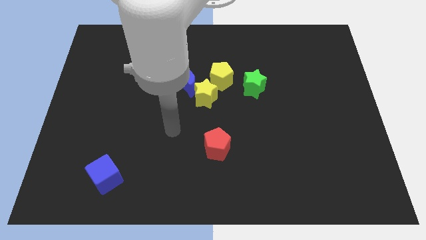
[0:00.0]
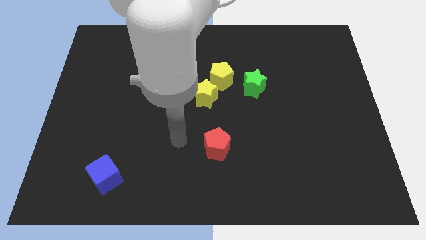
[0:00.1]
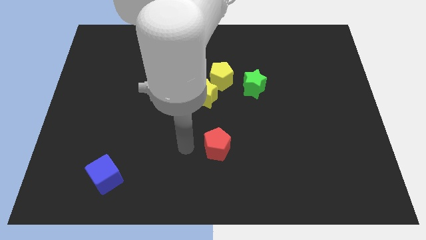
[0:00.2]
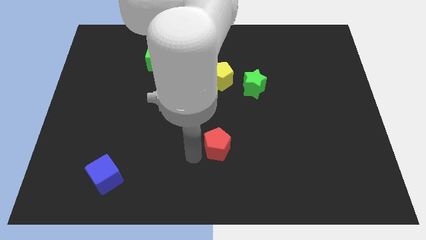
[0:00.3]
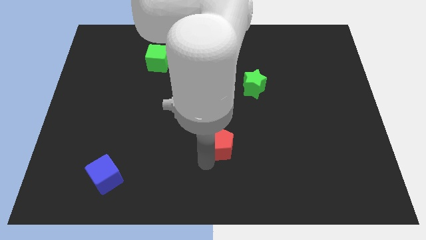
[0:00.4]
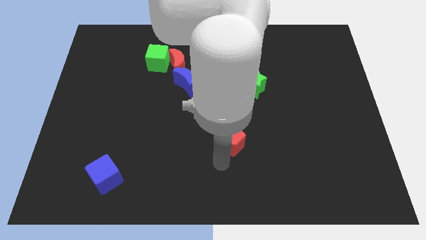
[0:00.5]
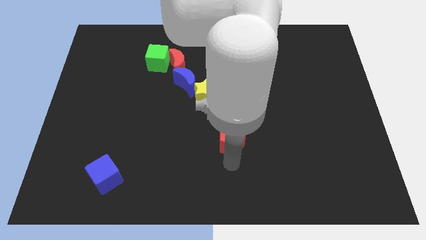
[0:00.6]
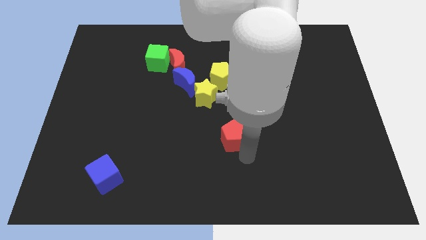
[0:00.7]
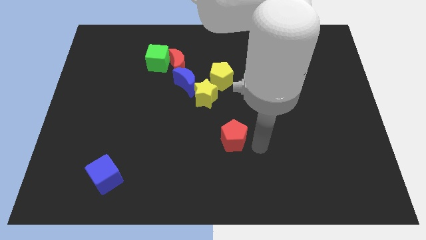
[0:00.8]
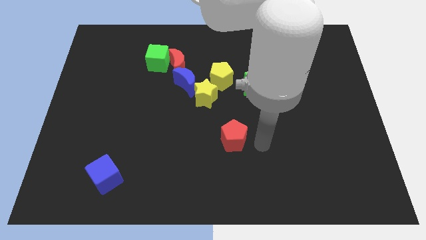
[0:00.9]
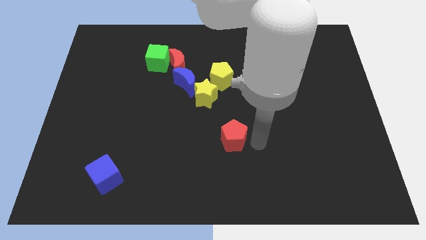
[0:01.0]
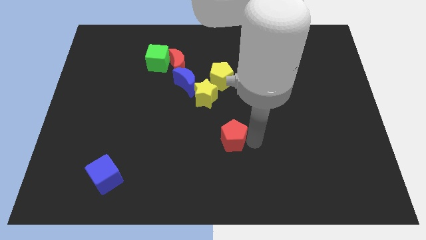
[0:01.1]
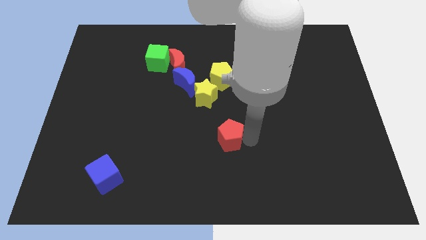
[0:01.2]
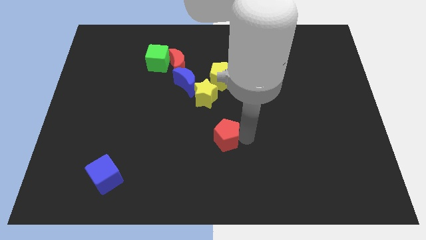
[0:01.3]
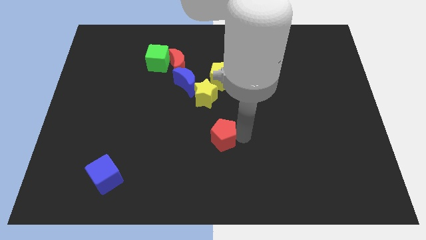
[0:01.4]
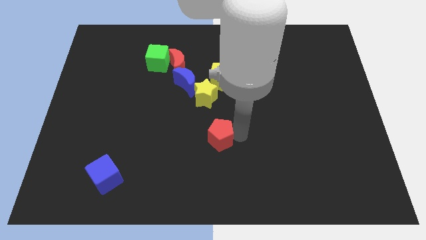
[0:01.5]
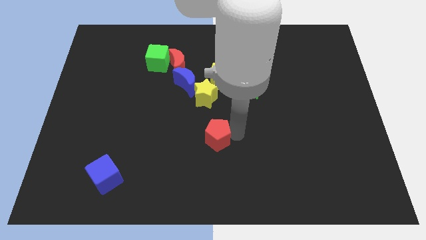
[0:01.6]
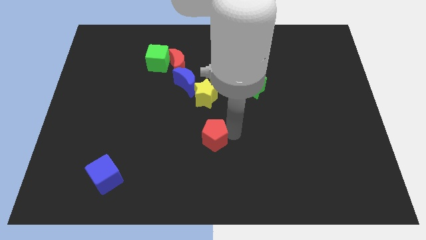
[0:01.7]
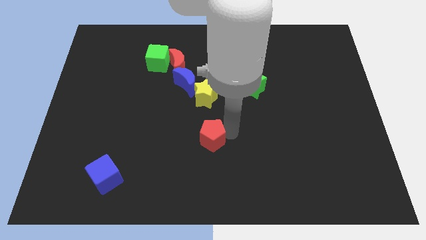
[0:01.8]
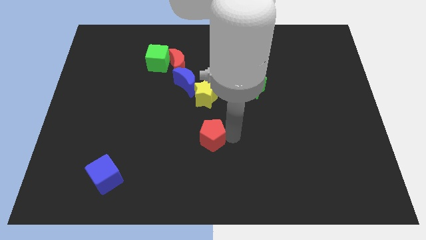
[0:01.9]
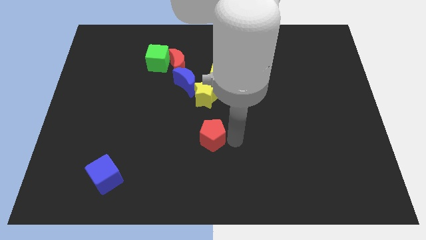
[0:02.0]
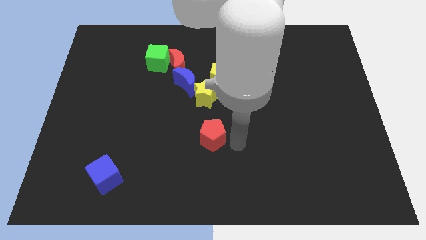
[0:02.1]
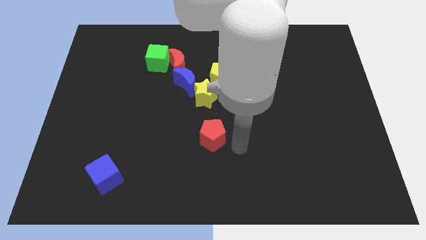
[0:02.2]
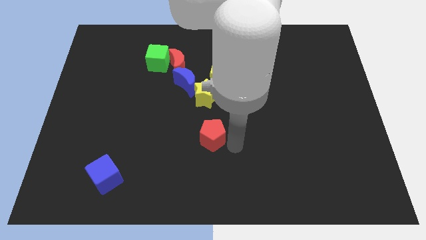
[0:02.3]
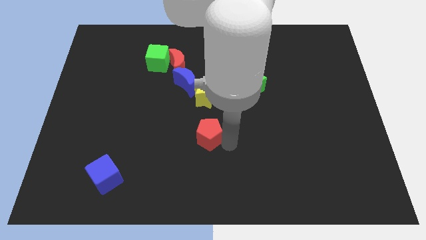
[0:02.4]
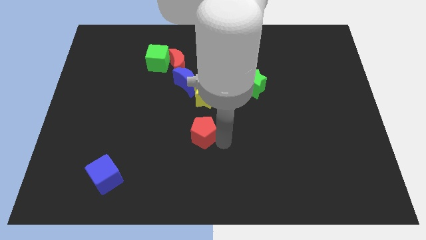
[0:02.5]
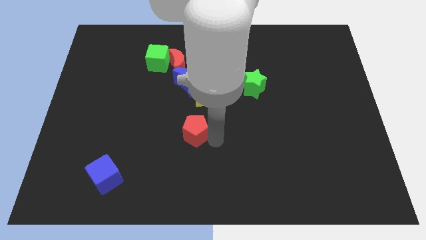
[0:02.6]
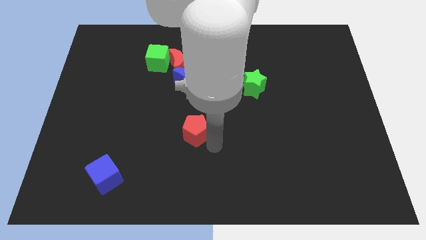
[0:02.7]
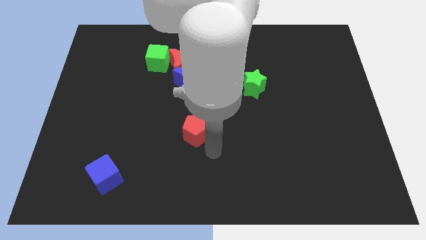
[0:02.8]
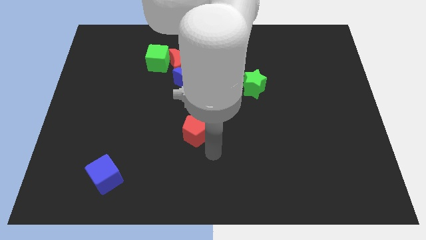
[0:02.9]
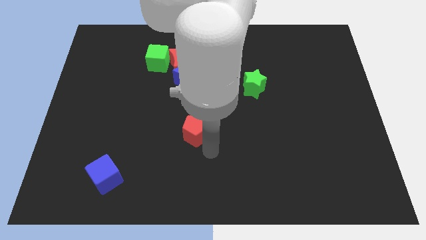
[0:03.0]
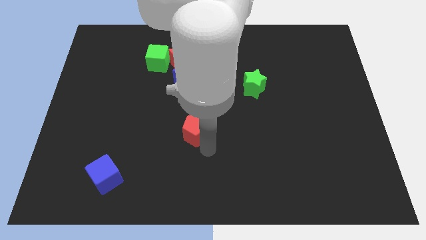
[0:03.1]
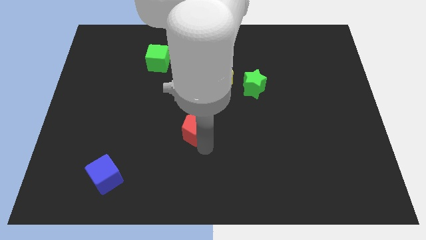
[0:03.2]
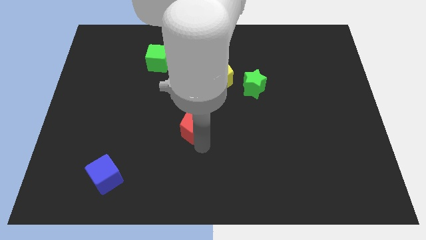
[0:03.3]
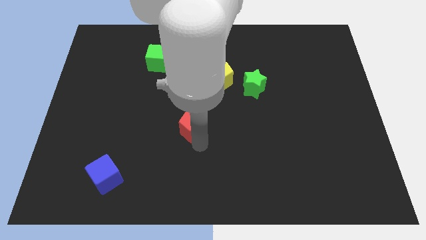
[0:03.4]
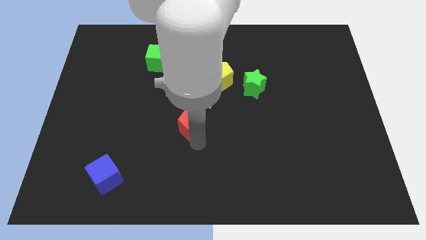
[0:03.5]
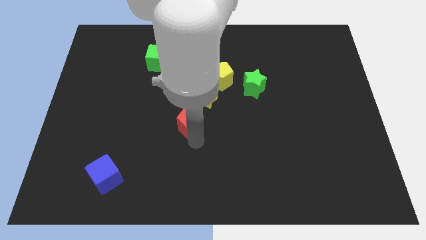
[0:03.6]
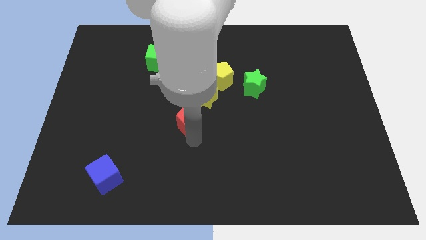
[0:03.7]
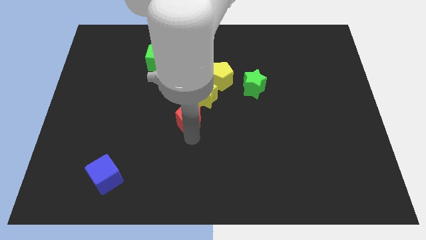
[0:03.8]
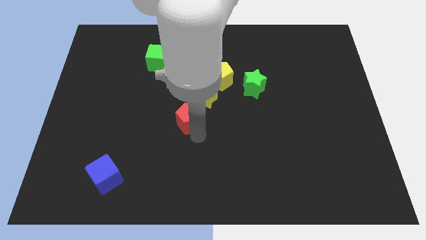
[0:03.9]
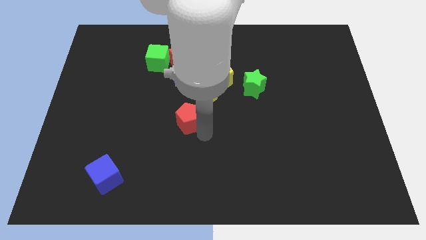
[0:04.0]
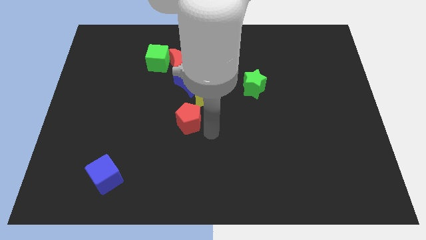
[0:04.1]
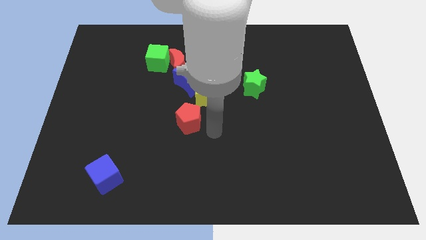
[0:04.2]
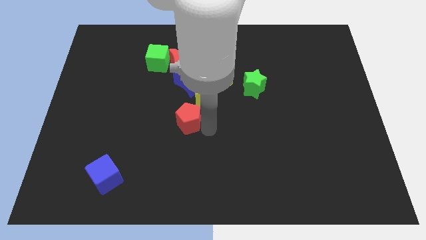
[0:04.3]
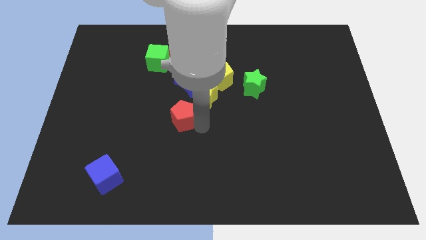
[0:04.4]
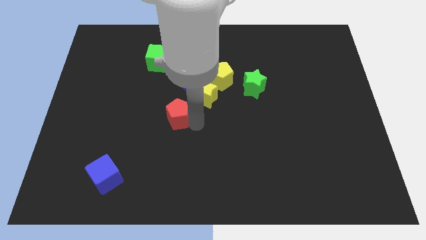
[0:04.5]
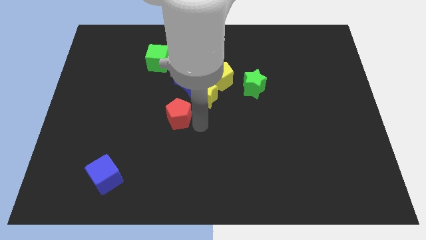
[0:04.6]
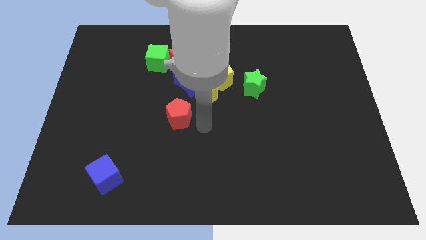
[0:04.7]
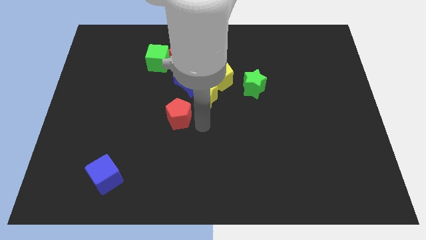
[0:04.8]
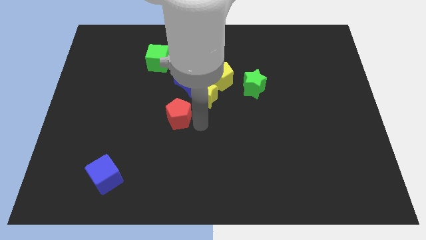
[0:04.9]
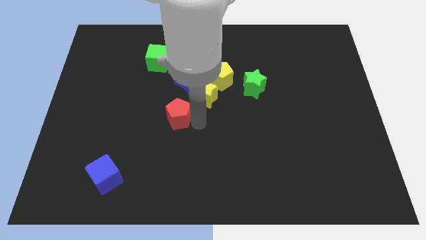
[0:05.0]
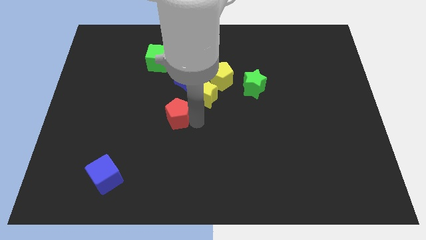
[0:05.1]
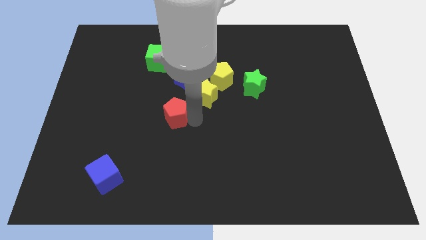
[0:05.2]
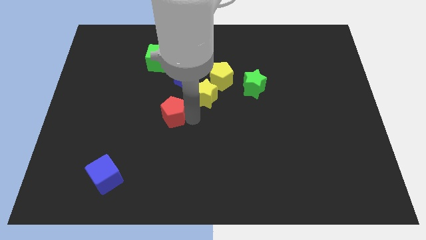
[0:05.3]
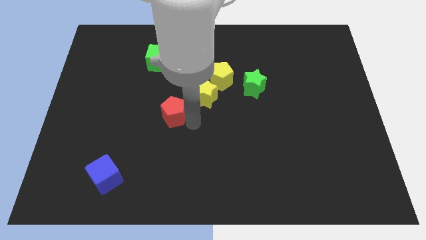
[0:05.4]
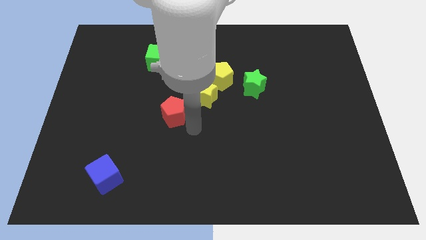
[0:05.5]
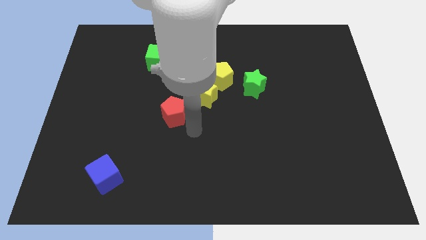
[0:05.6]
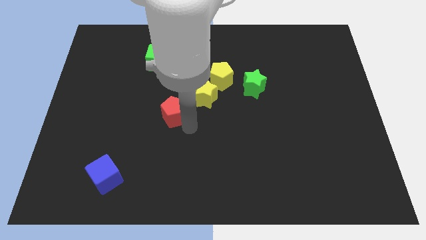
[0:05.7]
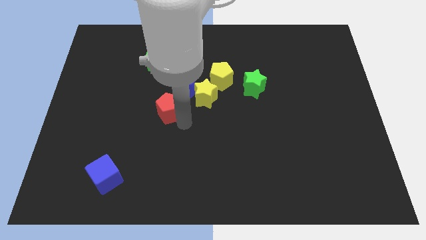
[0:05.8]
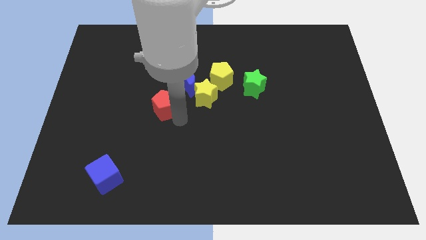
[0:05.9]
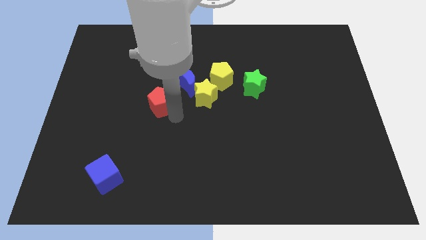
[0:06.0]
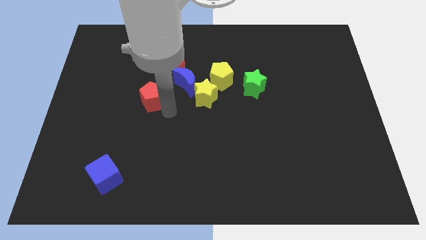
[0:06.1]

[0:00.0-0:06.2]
push the red pentagon upwards and left diagonally

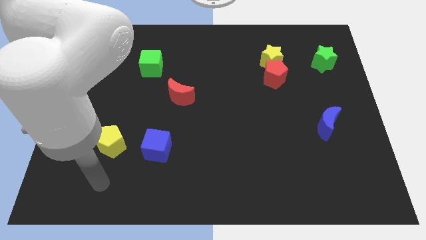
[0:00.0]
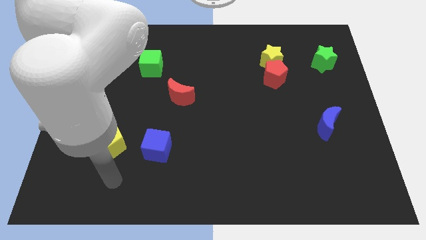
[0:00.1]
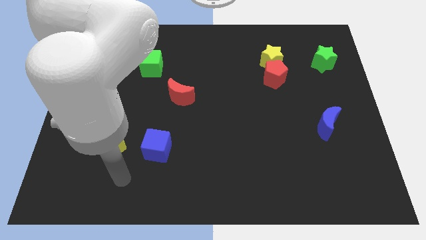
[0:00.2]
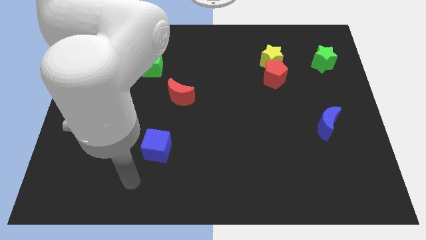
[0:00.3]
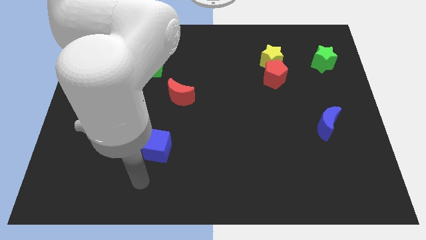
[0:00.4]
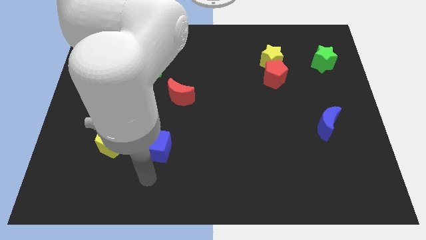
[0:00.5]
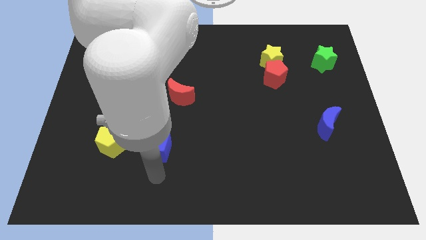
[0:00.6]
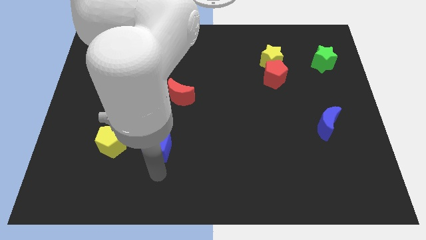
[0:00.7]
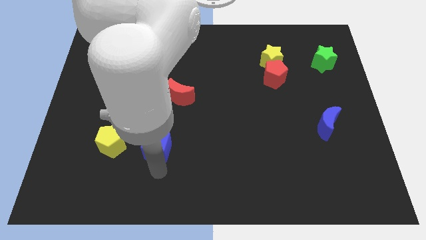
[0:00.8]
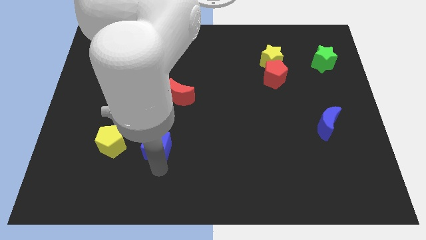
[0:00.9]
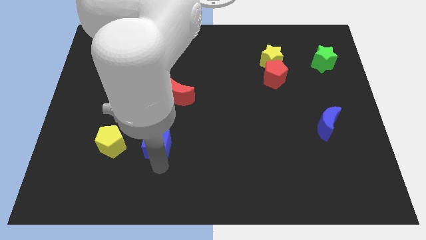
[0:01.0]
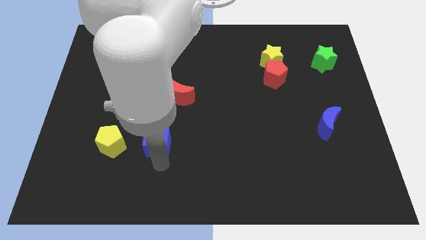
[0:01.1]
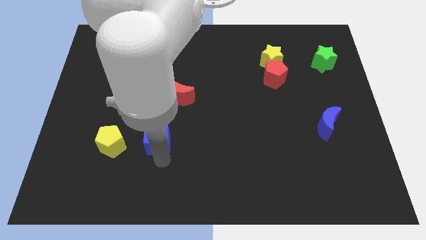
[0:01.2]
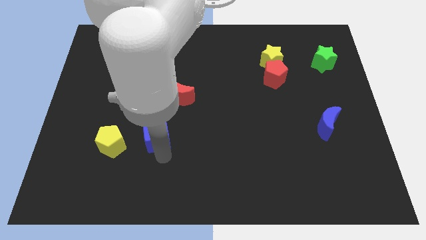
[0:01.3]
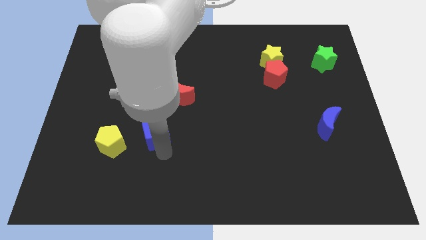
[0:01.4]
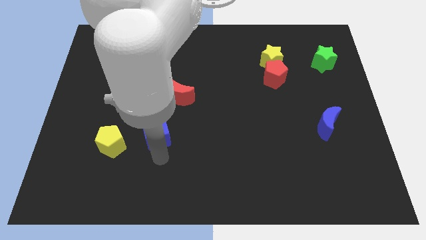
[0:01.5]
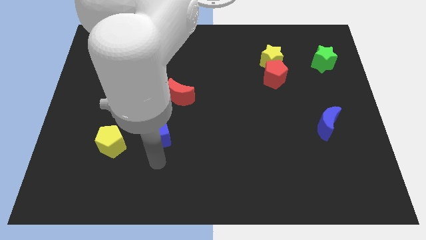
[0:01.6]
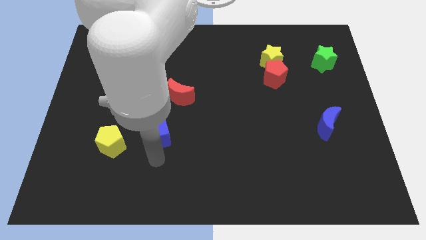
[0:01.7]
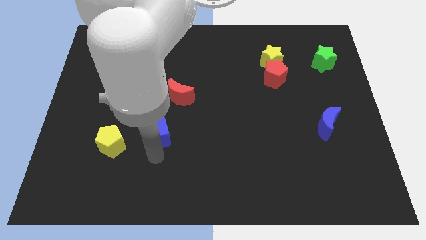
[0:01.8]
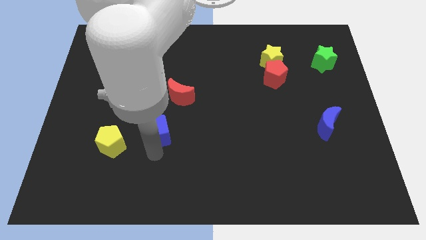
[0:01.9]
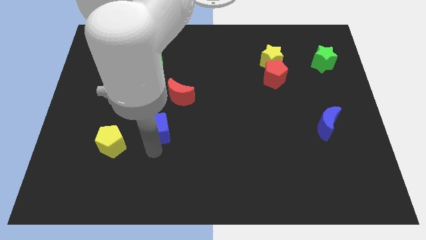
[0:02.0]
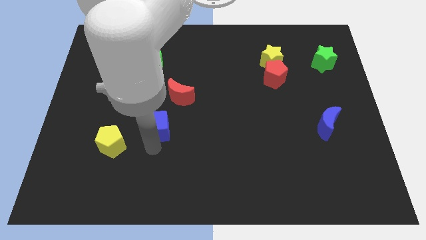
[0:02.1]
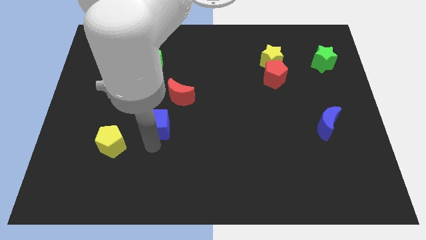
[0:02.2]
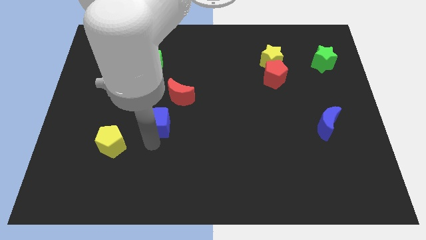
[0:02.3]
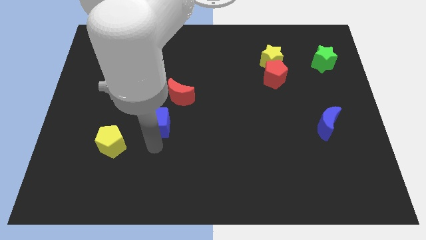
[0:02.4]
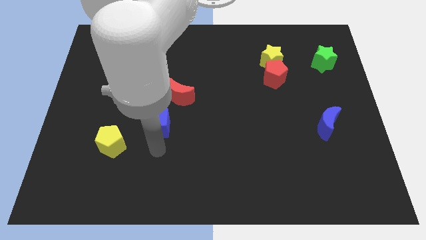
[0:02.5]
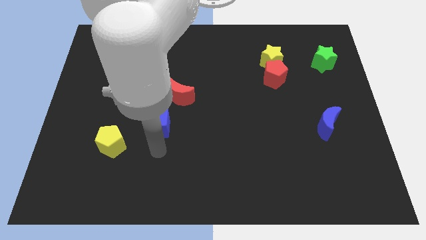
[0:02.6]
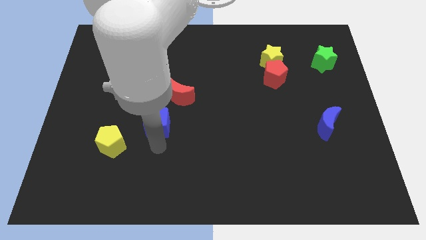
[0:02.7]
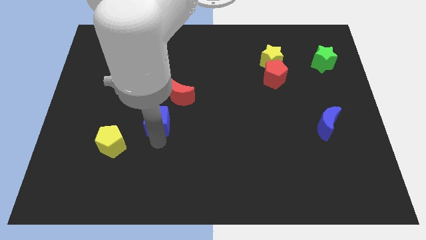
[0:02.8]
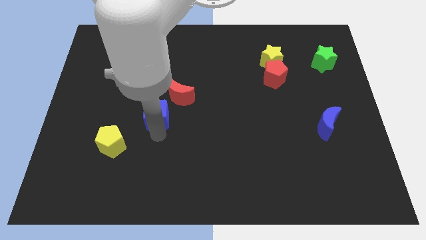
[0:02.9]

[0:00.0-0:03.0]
move the blue cube up somewhat
